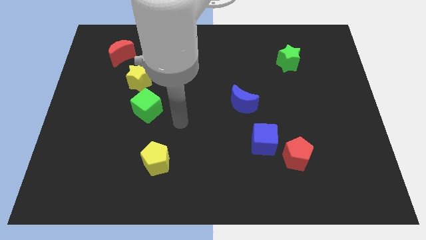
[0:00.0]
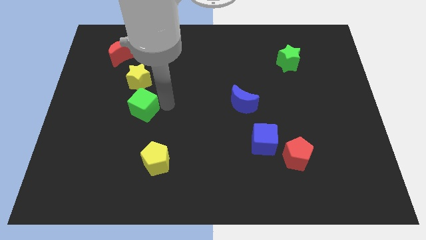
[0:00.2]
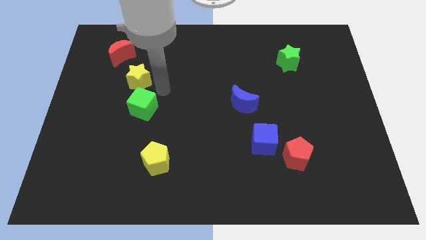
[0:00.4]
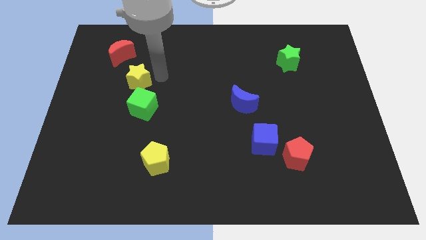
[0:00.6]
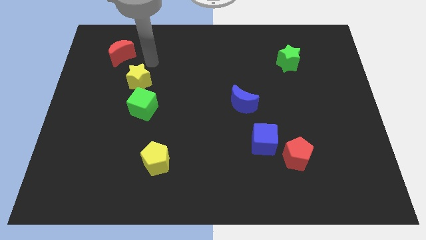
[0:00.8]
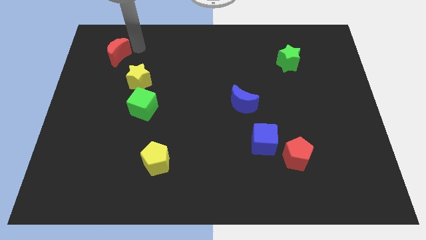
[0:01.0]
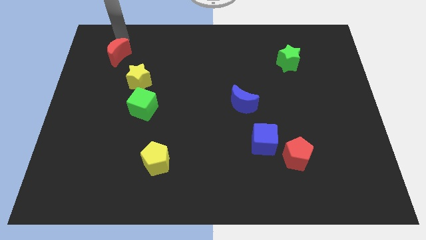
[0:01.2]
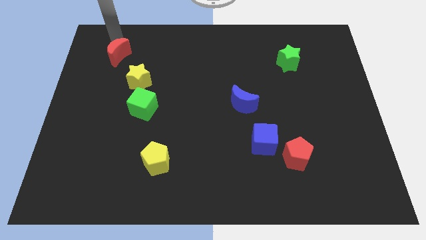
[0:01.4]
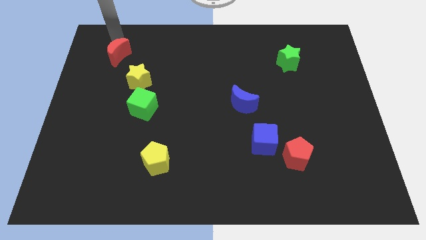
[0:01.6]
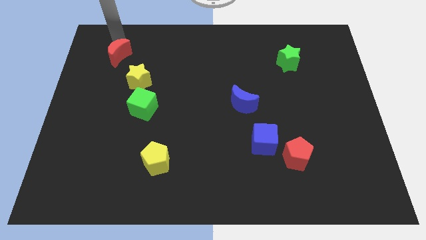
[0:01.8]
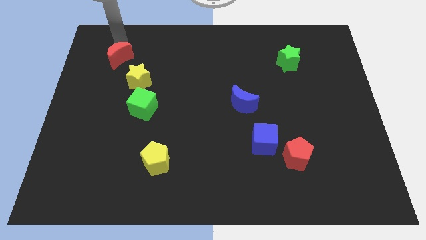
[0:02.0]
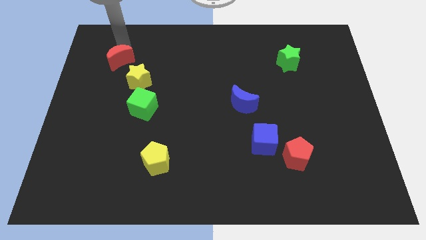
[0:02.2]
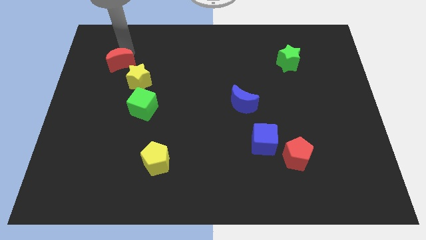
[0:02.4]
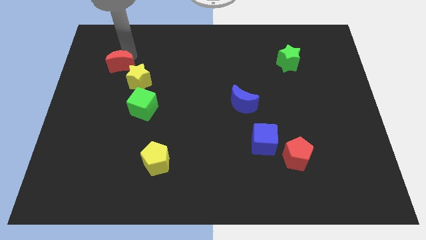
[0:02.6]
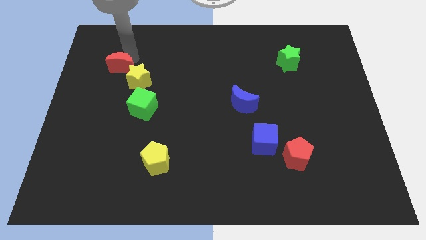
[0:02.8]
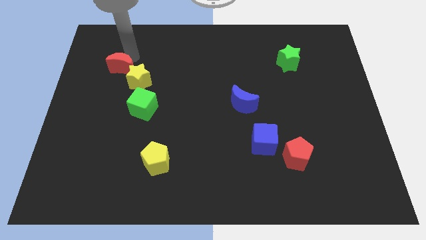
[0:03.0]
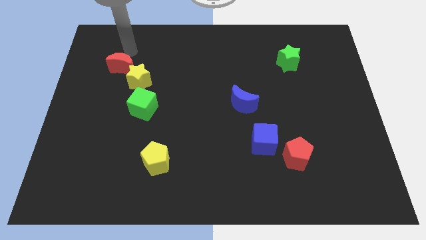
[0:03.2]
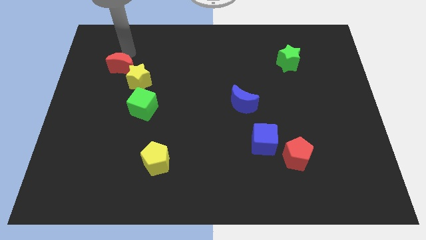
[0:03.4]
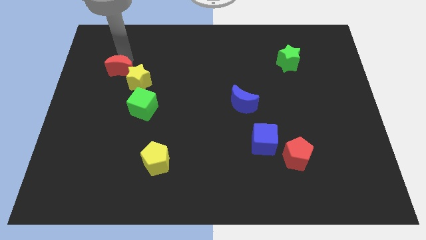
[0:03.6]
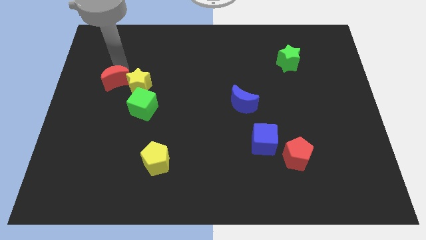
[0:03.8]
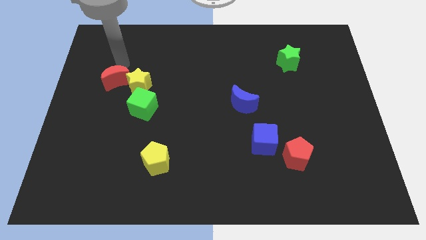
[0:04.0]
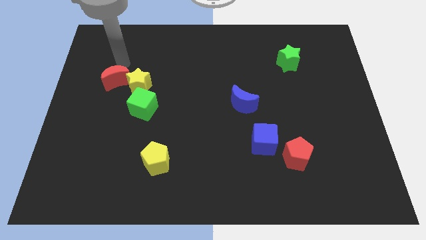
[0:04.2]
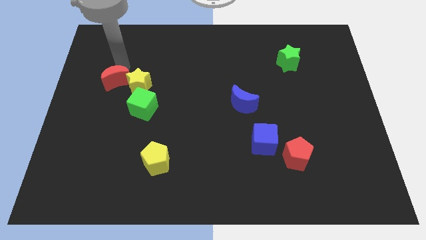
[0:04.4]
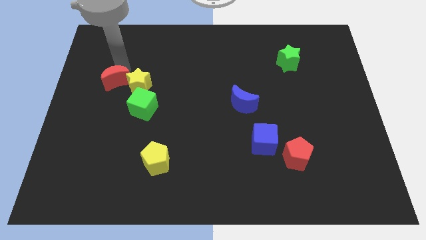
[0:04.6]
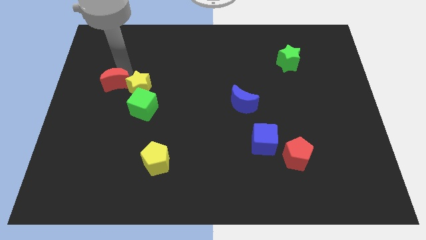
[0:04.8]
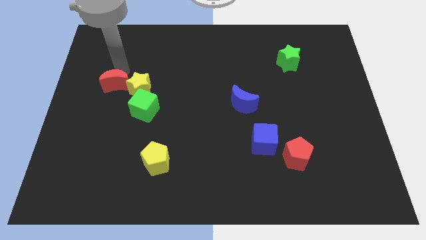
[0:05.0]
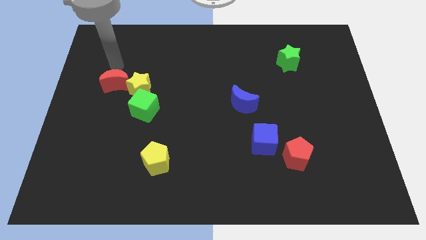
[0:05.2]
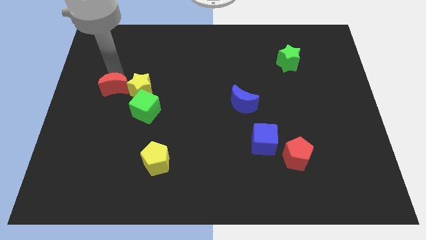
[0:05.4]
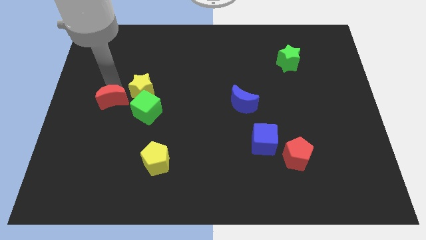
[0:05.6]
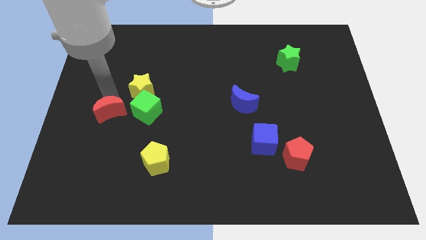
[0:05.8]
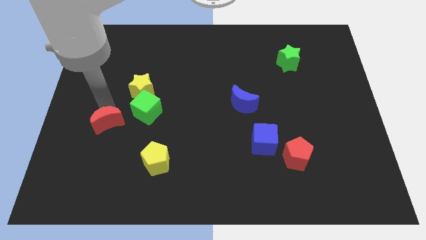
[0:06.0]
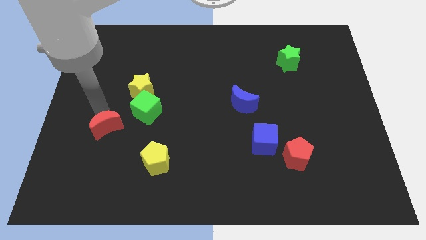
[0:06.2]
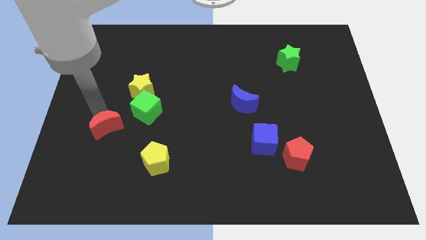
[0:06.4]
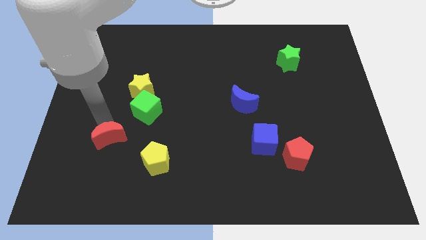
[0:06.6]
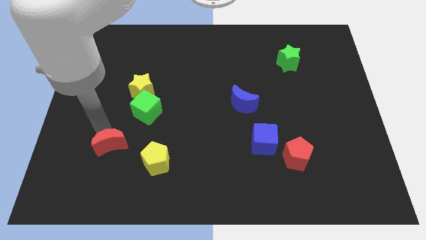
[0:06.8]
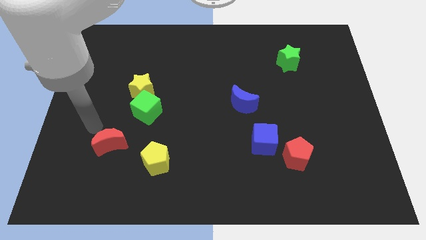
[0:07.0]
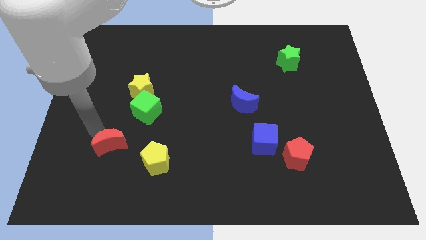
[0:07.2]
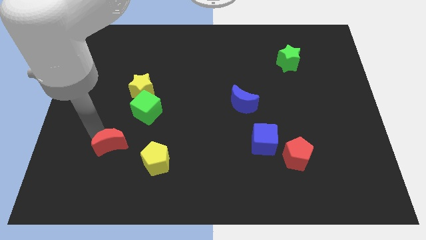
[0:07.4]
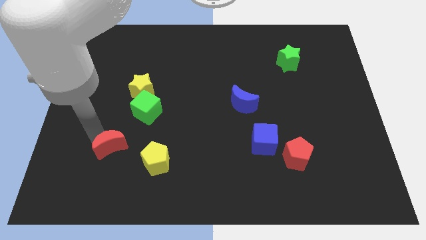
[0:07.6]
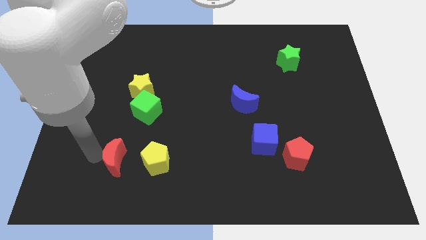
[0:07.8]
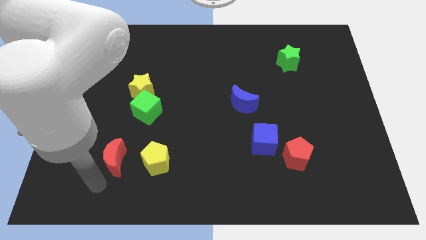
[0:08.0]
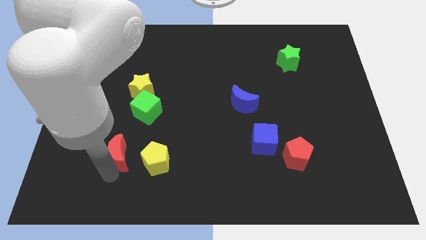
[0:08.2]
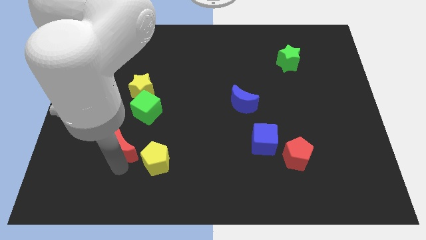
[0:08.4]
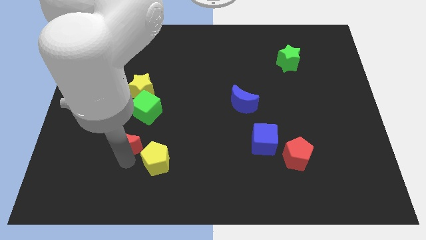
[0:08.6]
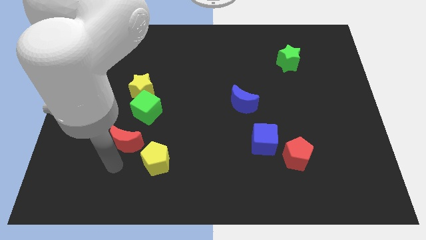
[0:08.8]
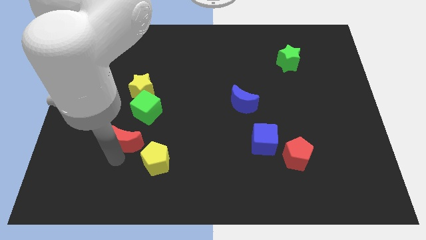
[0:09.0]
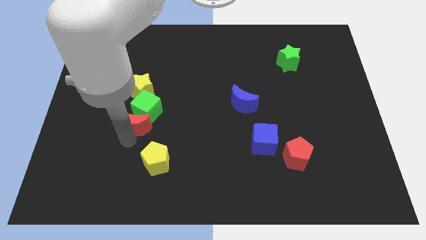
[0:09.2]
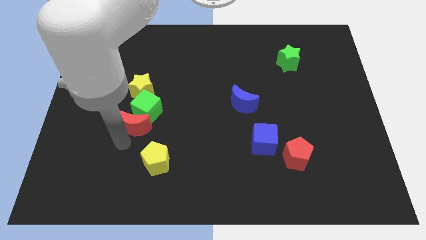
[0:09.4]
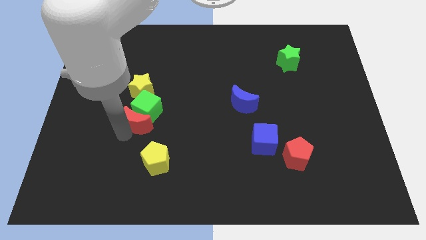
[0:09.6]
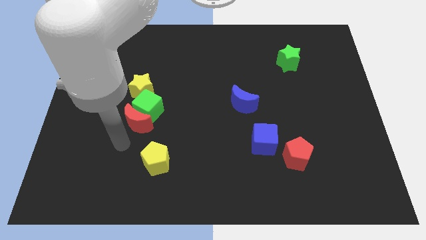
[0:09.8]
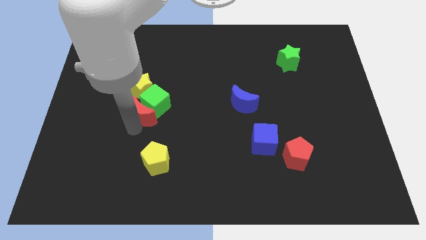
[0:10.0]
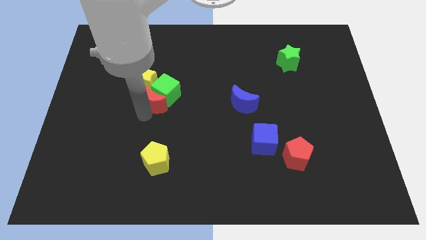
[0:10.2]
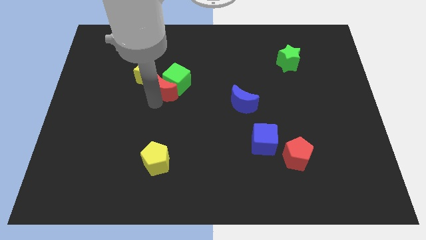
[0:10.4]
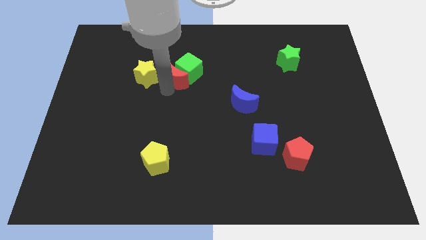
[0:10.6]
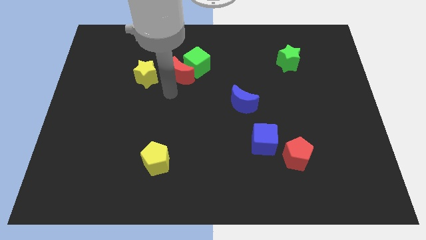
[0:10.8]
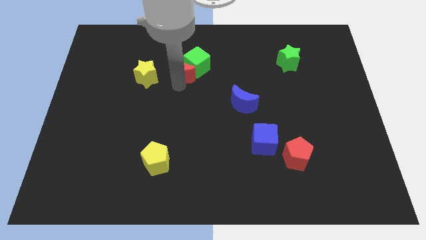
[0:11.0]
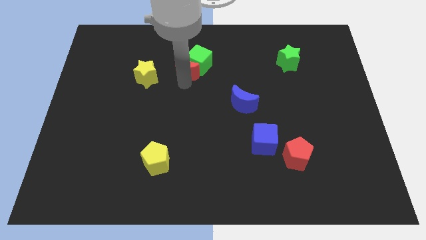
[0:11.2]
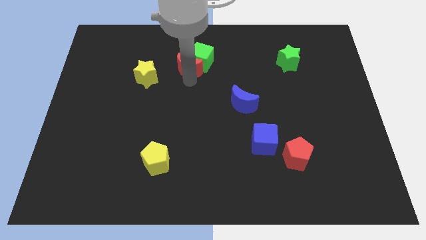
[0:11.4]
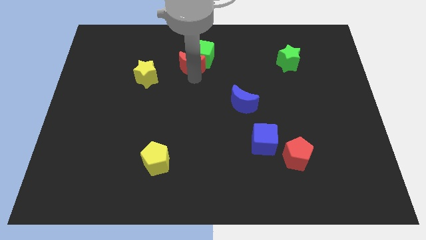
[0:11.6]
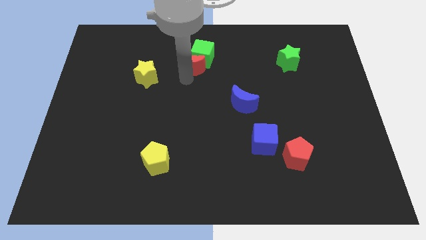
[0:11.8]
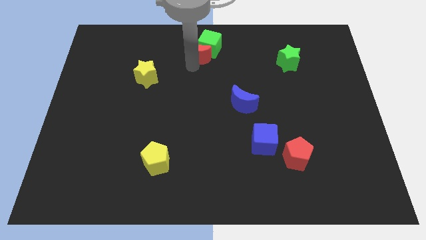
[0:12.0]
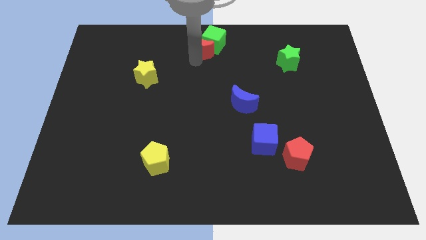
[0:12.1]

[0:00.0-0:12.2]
put the red moon to the top

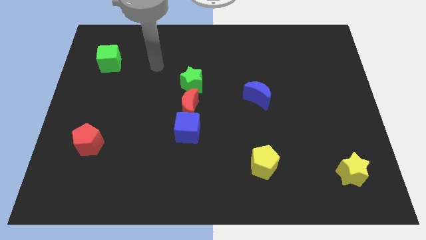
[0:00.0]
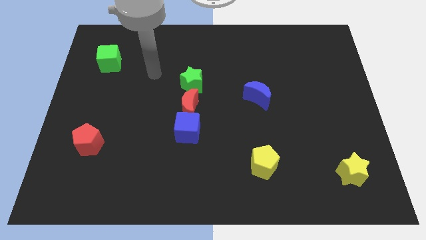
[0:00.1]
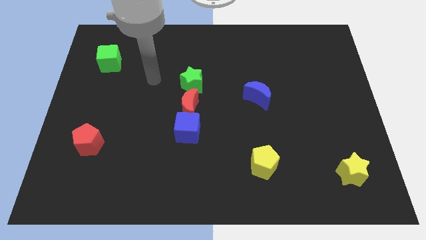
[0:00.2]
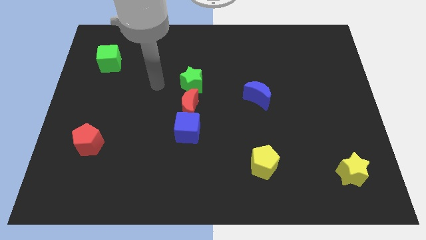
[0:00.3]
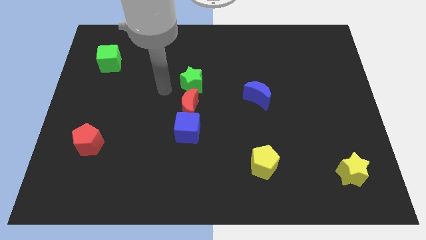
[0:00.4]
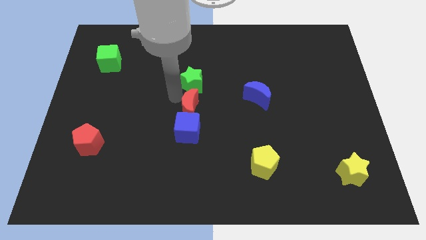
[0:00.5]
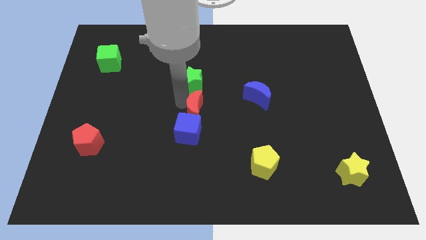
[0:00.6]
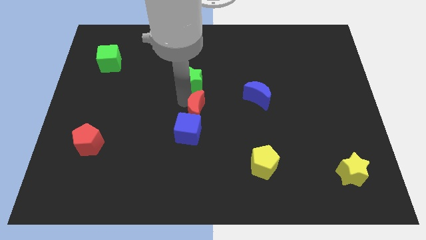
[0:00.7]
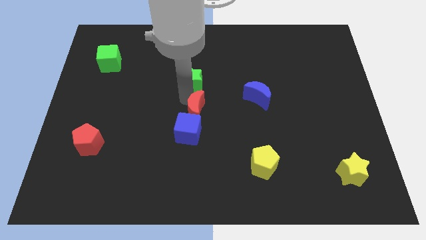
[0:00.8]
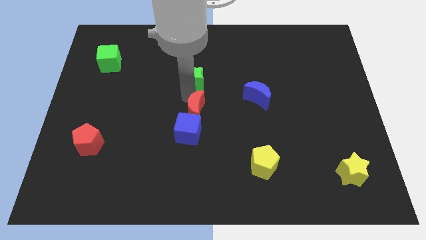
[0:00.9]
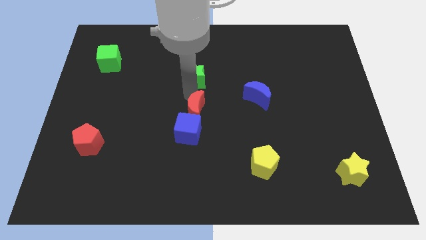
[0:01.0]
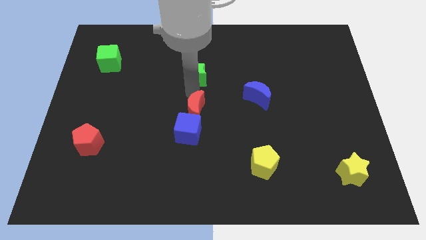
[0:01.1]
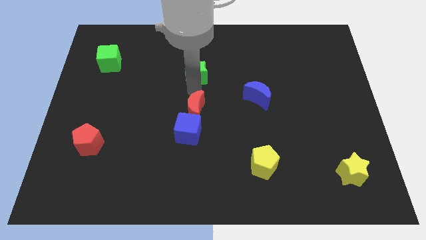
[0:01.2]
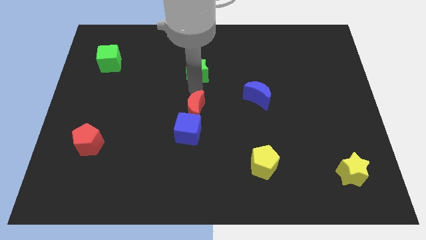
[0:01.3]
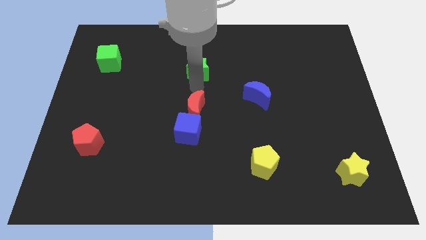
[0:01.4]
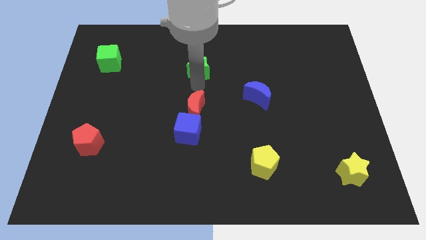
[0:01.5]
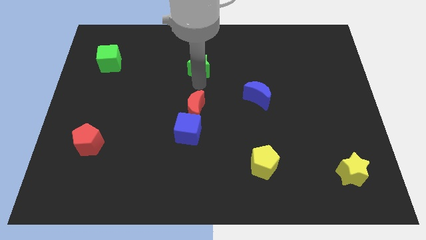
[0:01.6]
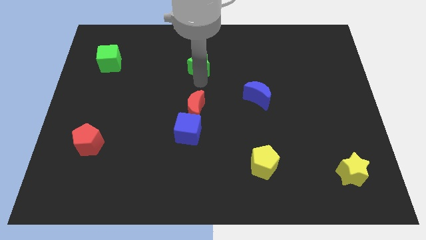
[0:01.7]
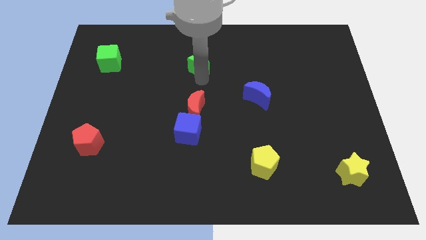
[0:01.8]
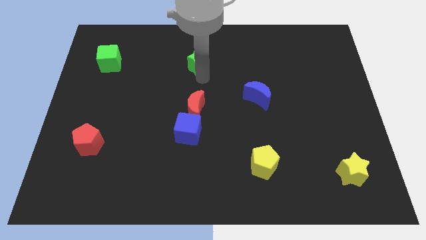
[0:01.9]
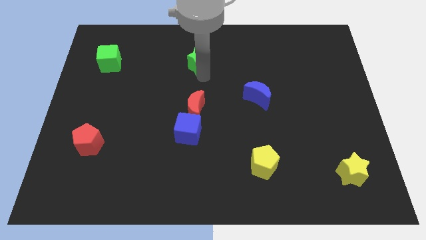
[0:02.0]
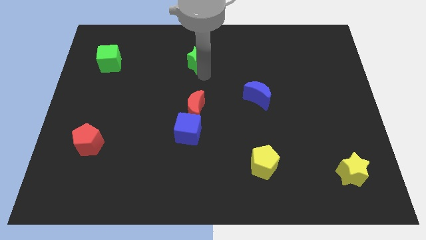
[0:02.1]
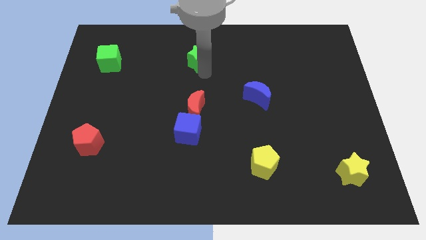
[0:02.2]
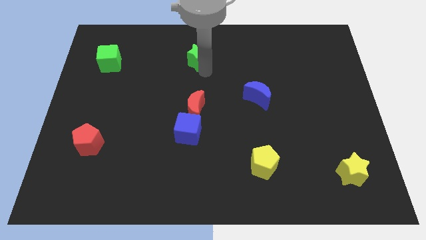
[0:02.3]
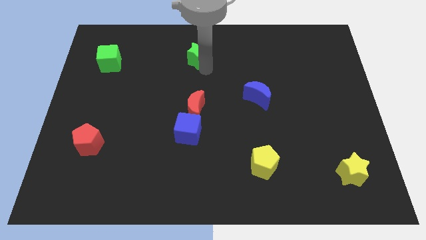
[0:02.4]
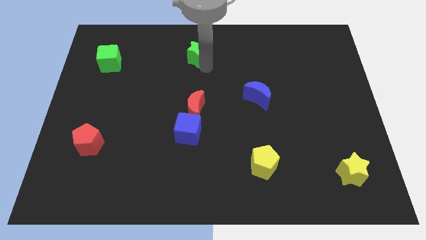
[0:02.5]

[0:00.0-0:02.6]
move the green star to the towards your base
